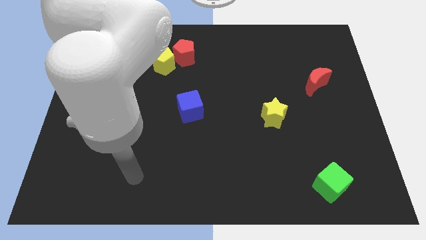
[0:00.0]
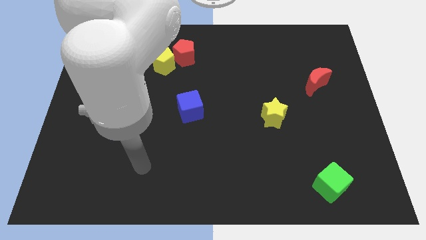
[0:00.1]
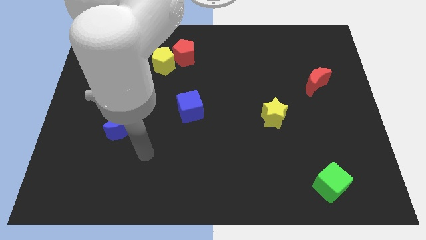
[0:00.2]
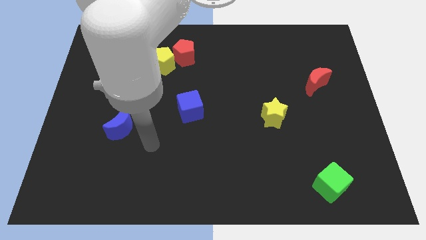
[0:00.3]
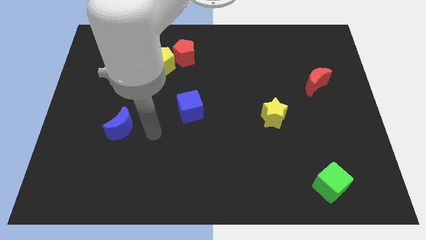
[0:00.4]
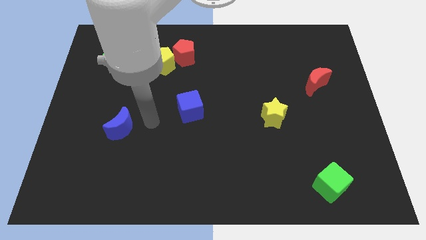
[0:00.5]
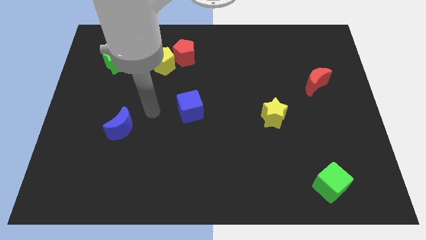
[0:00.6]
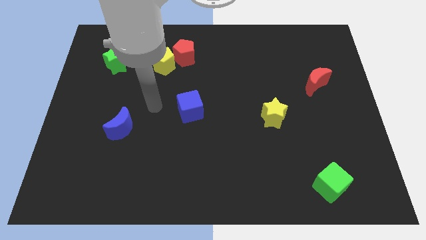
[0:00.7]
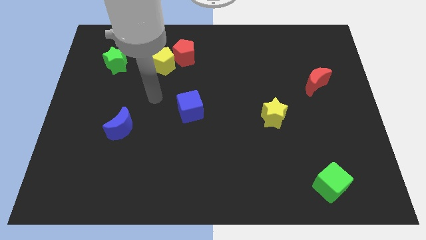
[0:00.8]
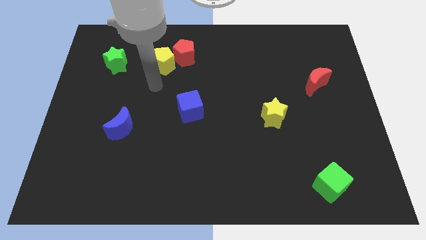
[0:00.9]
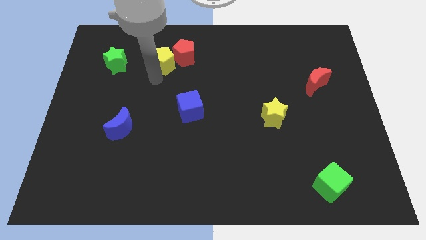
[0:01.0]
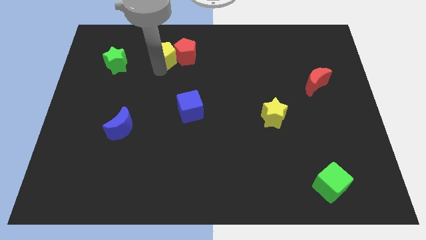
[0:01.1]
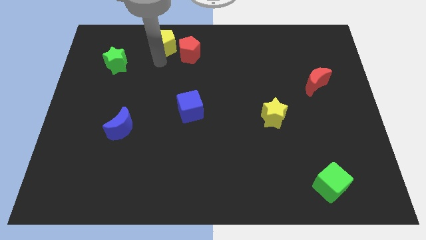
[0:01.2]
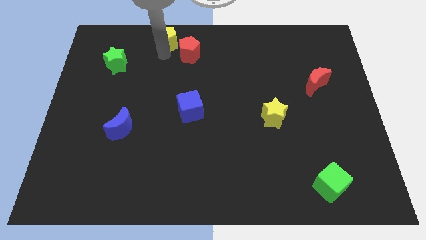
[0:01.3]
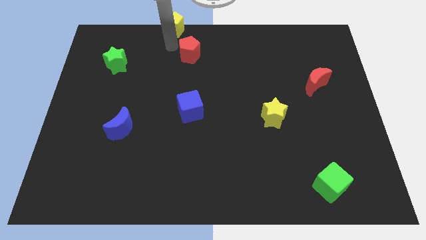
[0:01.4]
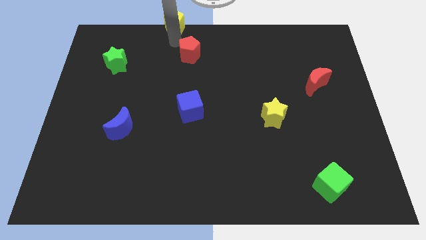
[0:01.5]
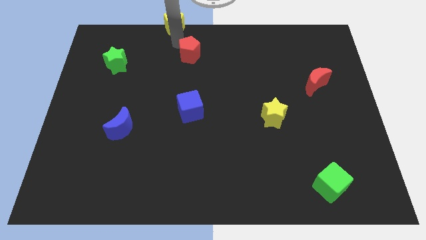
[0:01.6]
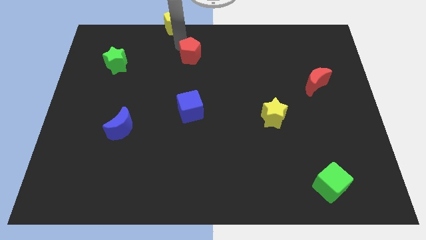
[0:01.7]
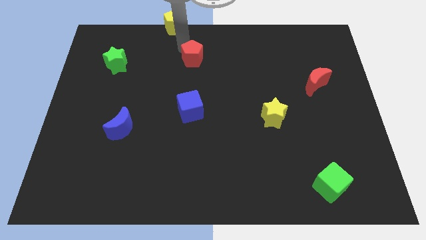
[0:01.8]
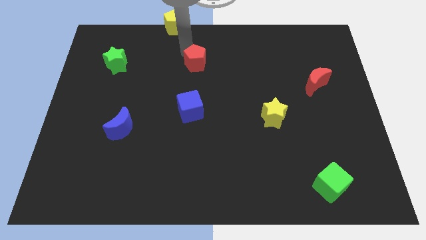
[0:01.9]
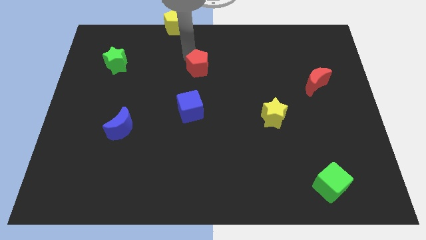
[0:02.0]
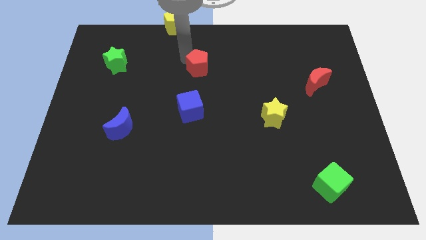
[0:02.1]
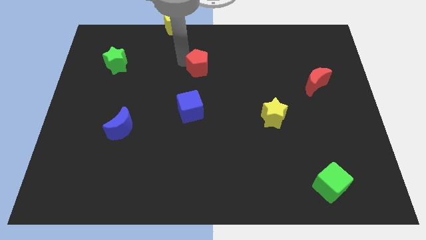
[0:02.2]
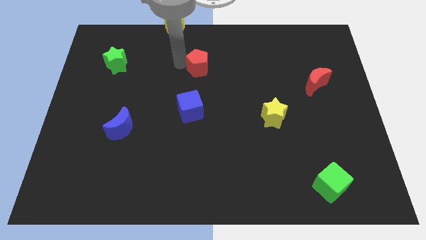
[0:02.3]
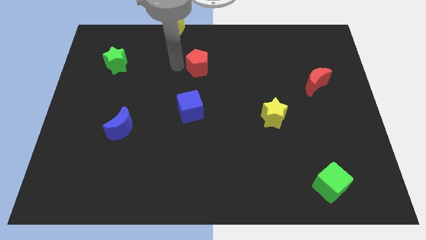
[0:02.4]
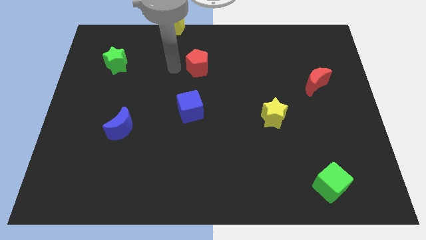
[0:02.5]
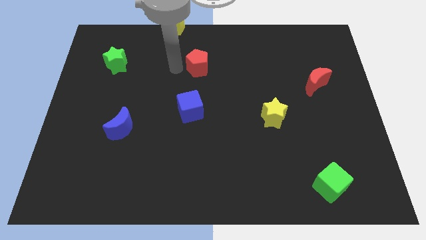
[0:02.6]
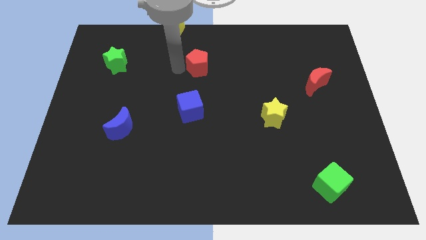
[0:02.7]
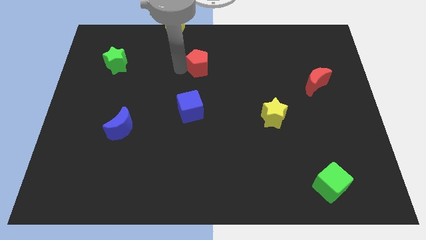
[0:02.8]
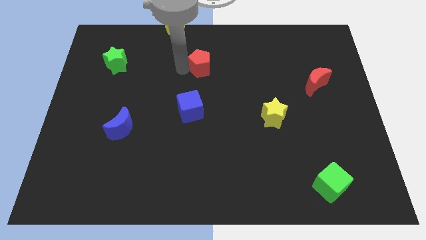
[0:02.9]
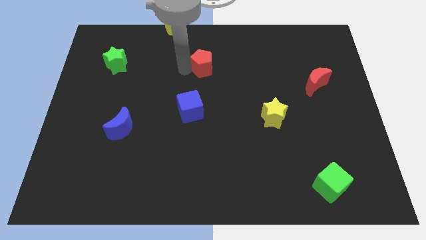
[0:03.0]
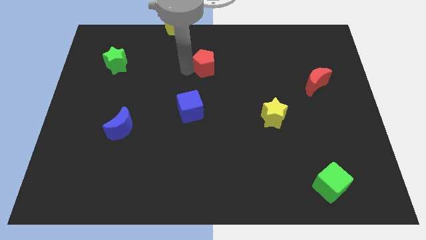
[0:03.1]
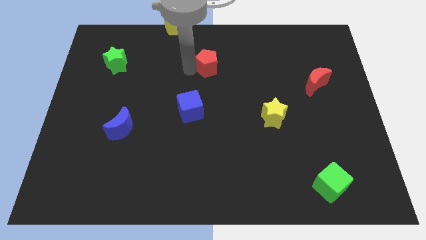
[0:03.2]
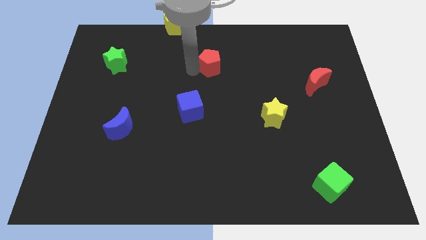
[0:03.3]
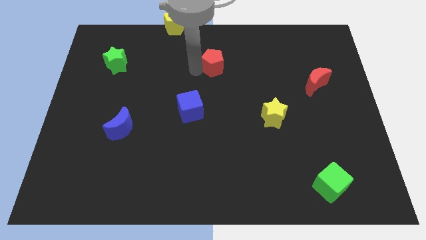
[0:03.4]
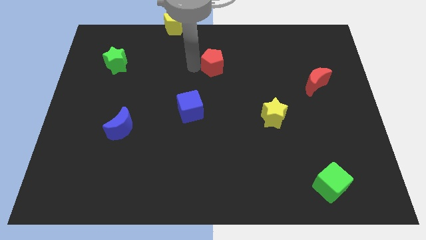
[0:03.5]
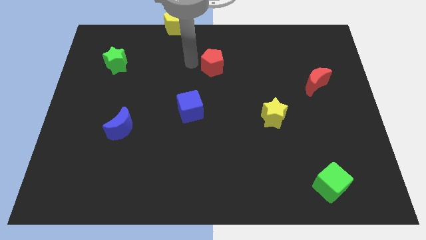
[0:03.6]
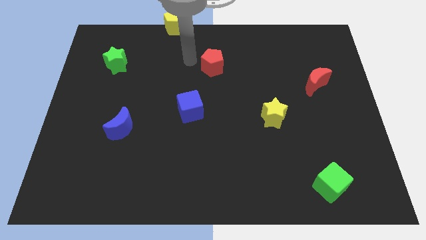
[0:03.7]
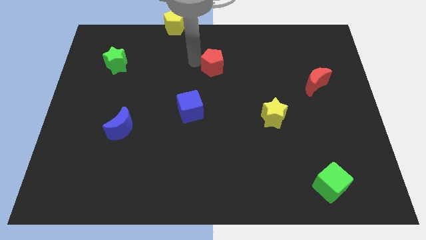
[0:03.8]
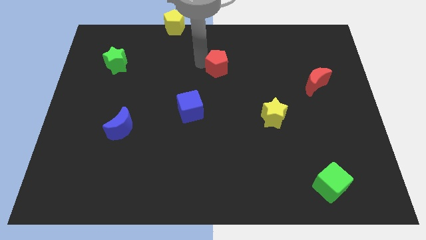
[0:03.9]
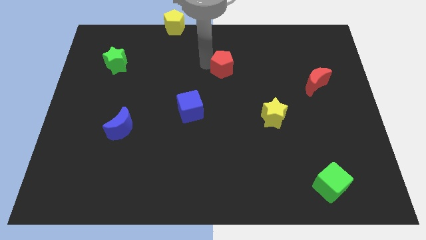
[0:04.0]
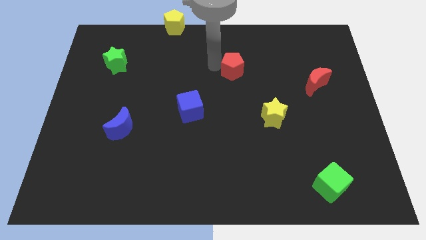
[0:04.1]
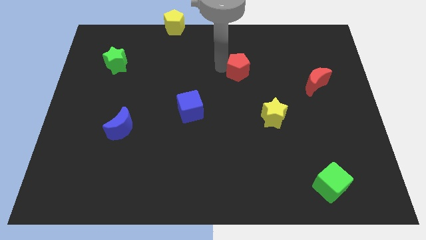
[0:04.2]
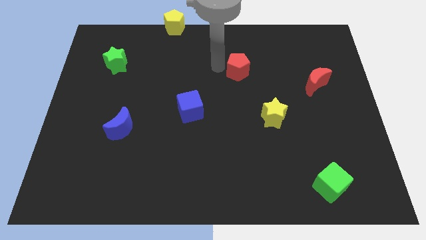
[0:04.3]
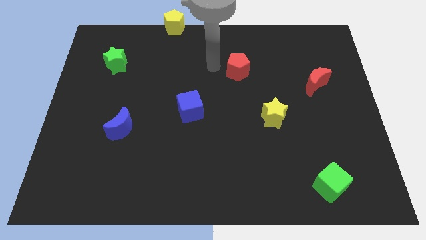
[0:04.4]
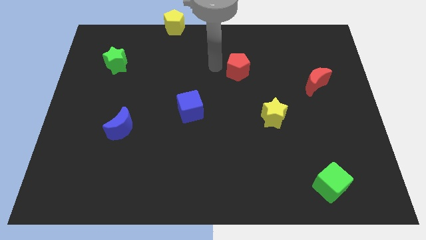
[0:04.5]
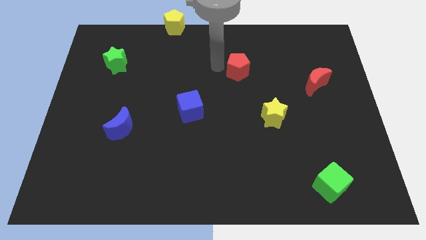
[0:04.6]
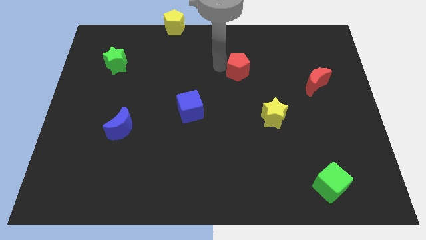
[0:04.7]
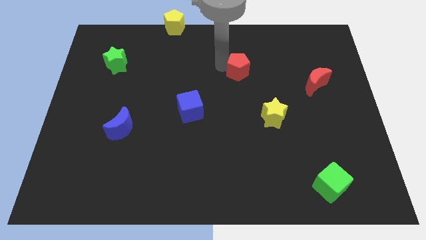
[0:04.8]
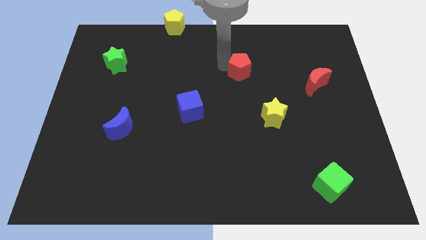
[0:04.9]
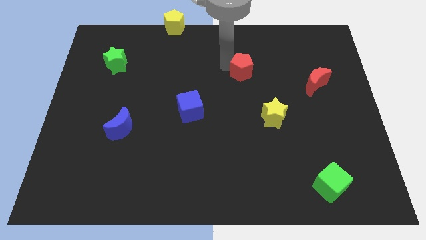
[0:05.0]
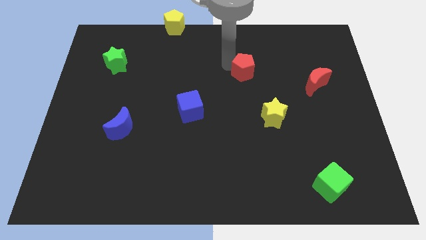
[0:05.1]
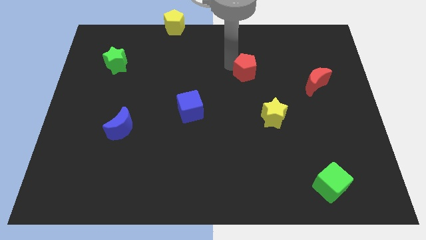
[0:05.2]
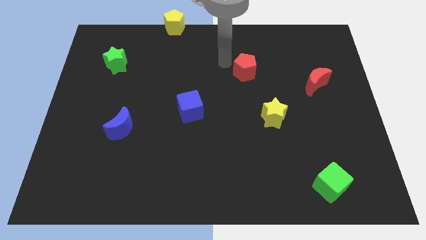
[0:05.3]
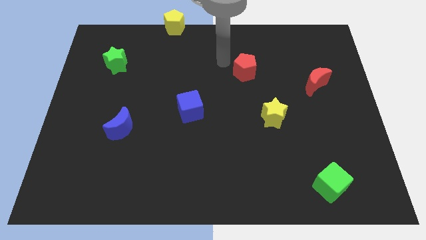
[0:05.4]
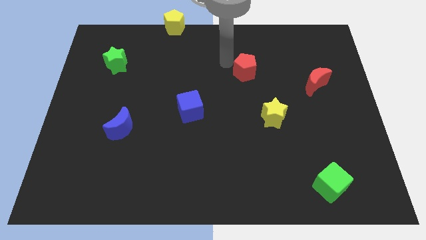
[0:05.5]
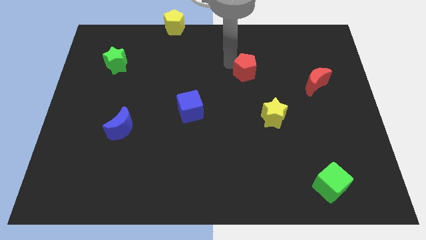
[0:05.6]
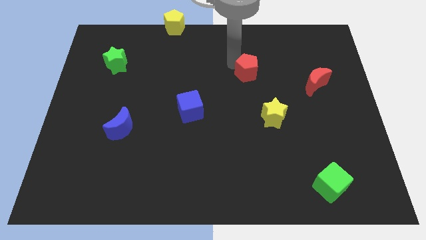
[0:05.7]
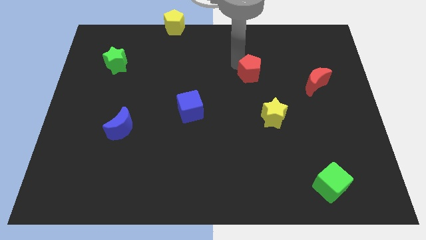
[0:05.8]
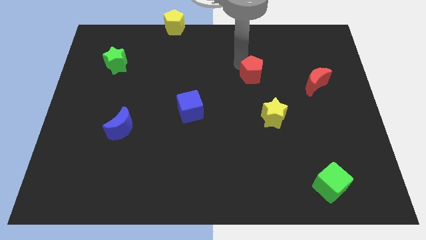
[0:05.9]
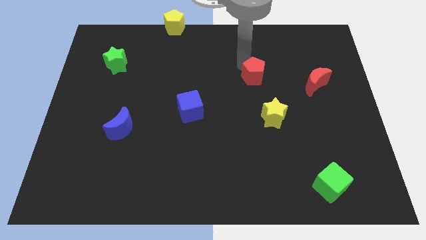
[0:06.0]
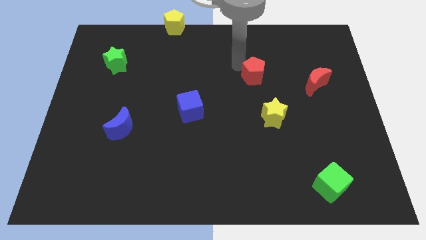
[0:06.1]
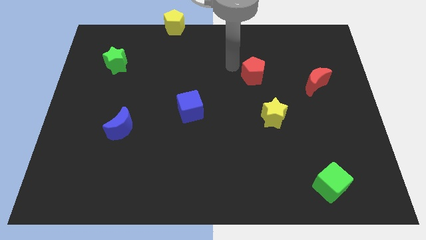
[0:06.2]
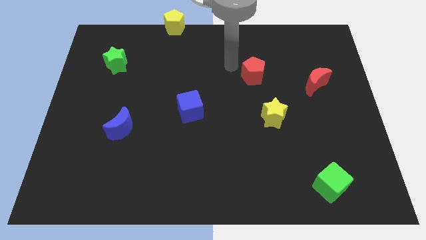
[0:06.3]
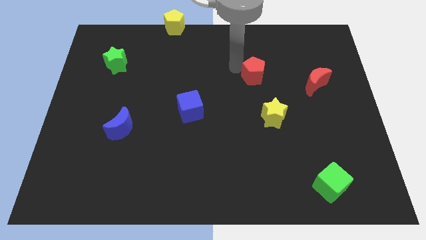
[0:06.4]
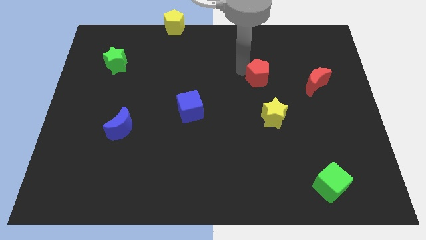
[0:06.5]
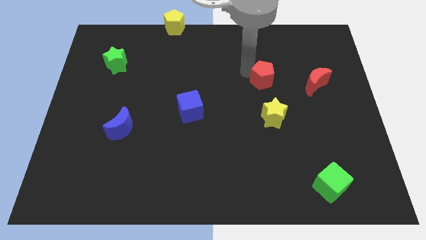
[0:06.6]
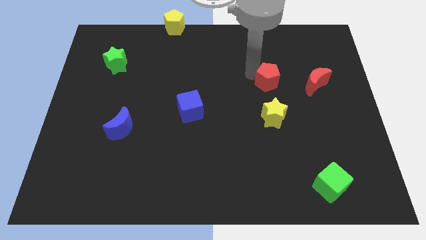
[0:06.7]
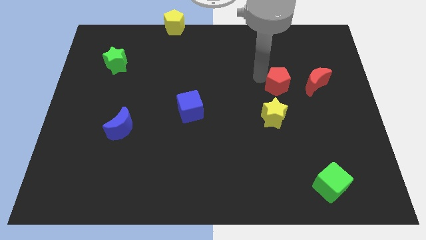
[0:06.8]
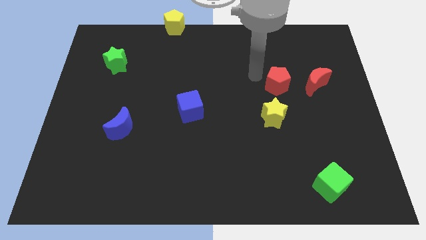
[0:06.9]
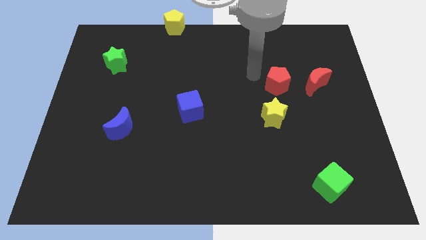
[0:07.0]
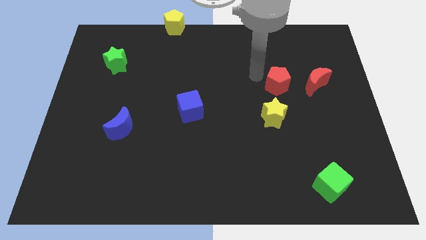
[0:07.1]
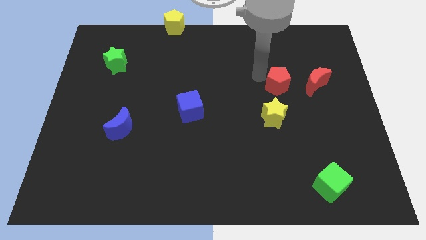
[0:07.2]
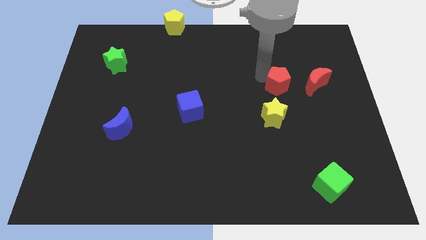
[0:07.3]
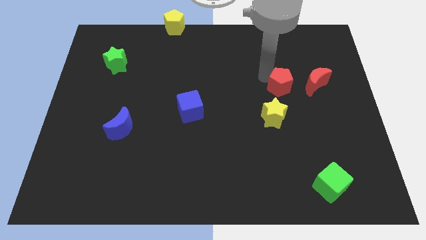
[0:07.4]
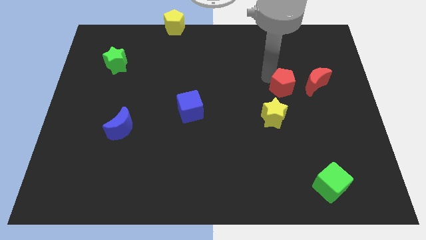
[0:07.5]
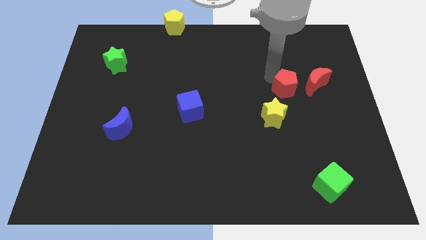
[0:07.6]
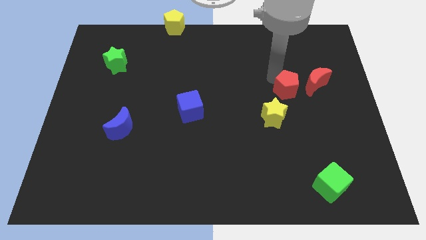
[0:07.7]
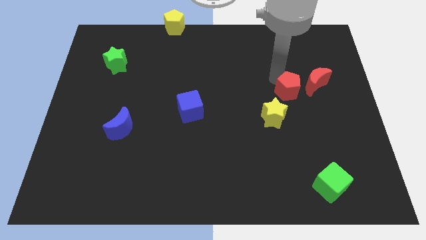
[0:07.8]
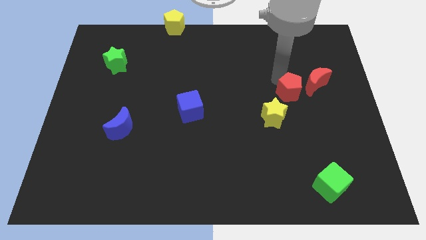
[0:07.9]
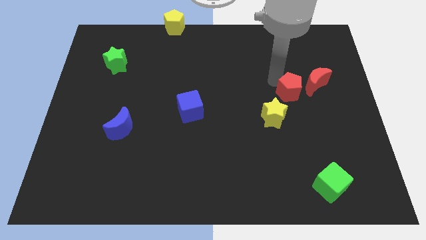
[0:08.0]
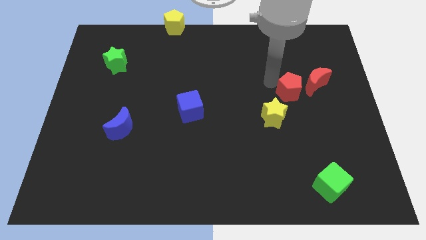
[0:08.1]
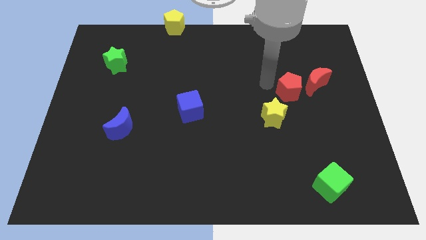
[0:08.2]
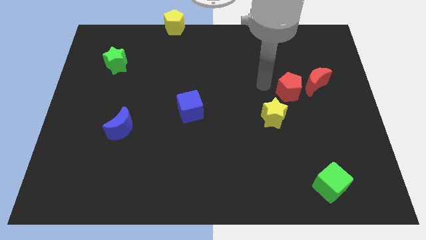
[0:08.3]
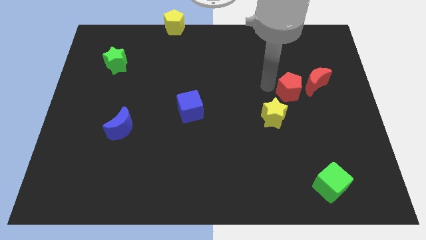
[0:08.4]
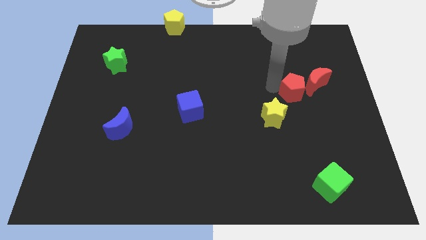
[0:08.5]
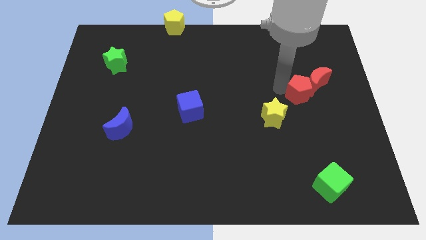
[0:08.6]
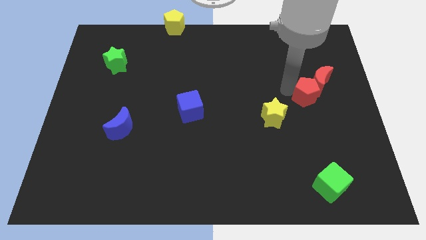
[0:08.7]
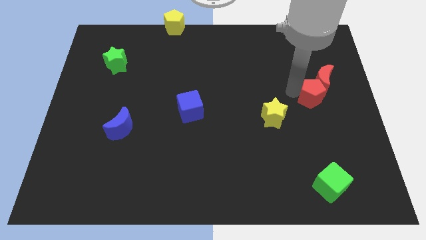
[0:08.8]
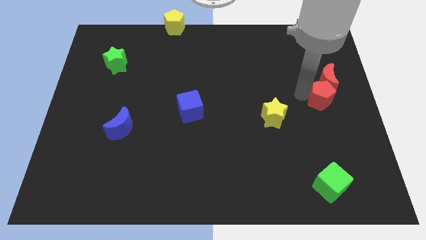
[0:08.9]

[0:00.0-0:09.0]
put the red pentagon to the right side of the board
